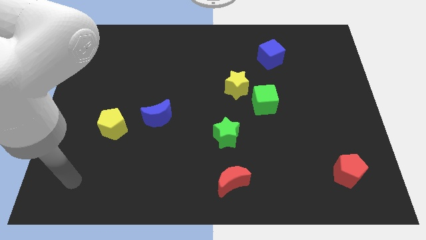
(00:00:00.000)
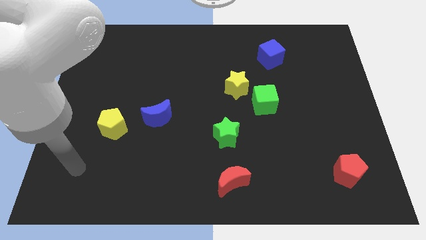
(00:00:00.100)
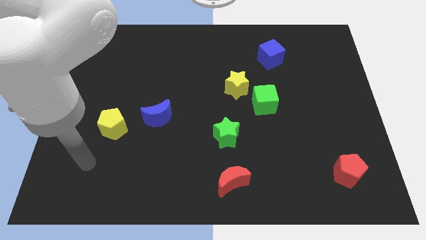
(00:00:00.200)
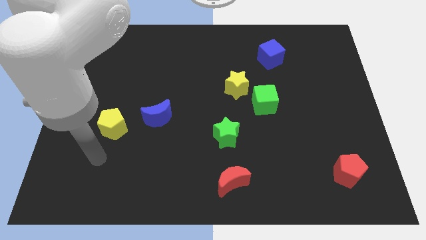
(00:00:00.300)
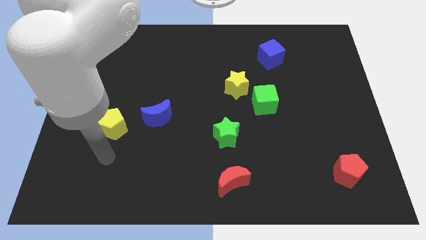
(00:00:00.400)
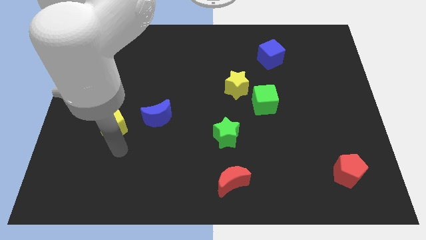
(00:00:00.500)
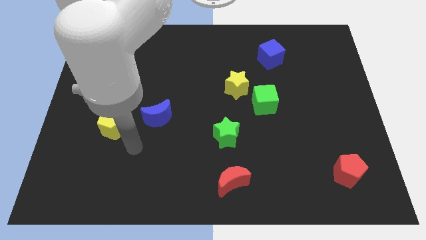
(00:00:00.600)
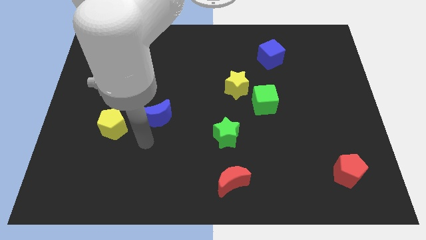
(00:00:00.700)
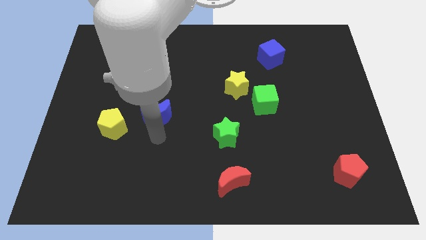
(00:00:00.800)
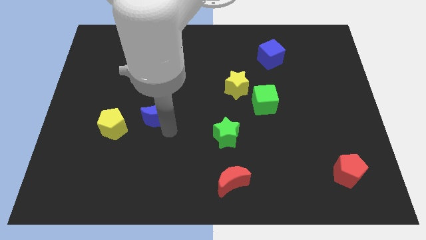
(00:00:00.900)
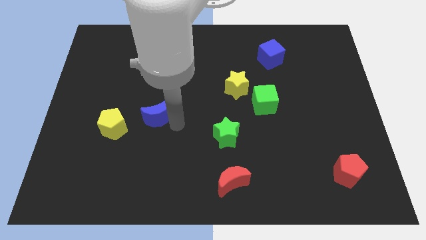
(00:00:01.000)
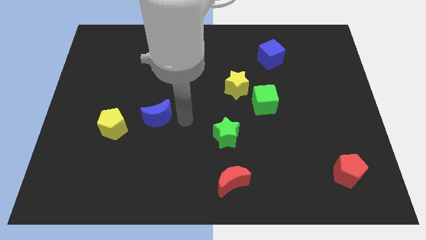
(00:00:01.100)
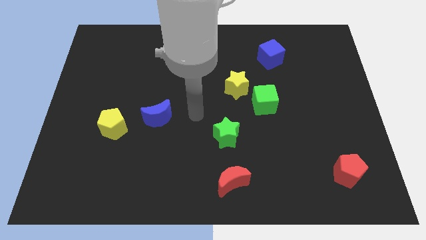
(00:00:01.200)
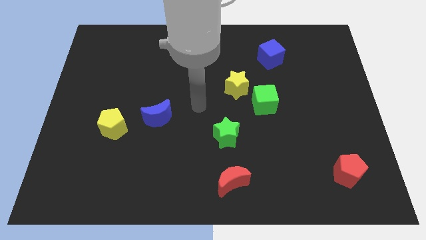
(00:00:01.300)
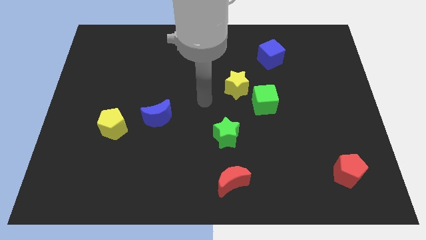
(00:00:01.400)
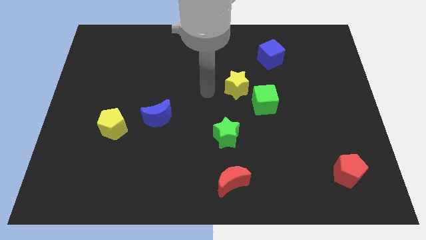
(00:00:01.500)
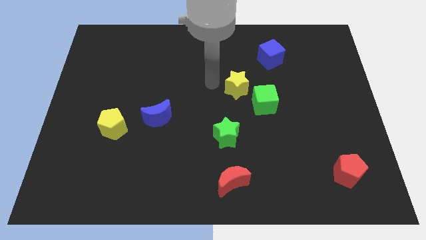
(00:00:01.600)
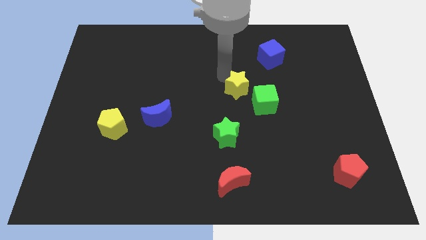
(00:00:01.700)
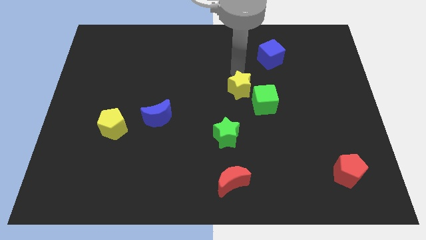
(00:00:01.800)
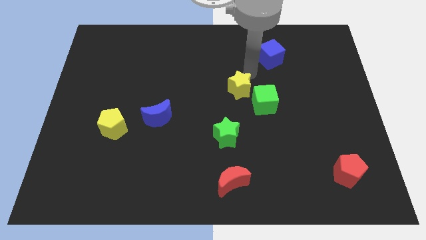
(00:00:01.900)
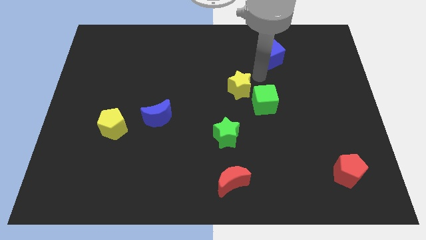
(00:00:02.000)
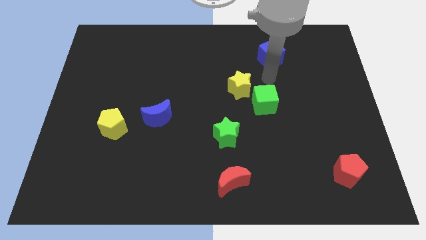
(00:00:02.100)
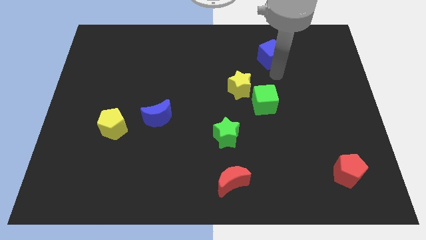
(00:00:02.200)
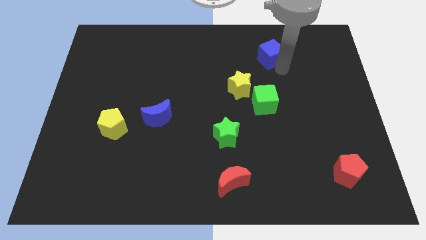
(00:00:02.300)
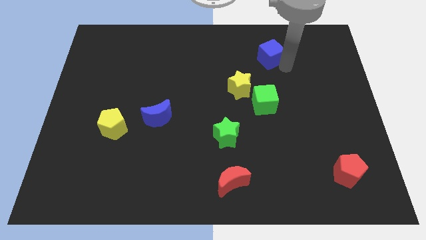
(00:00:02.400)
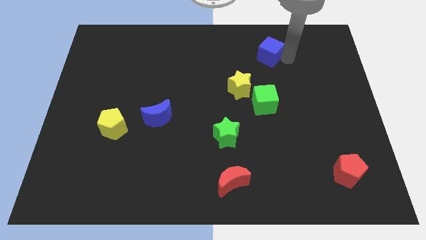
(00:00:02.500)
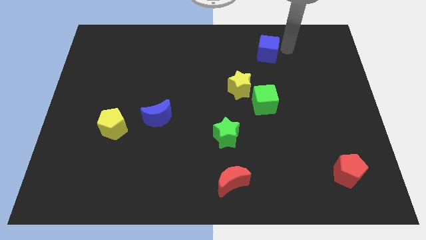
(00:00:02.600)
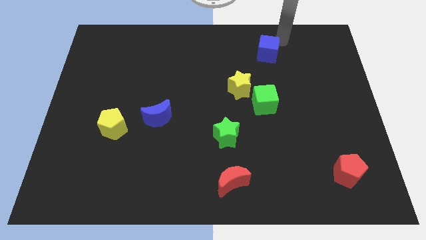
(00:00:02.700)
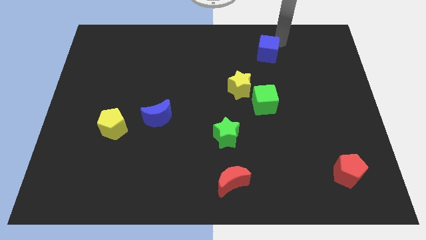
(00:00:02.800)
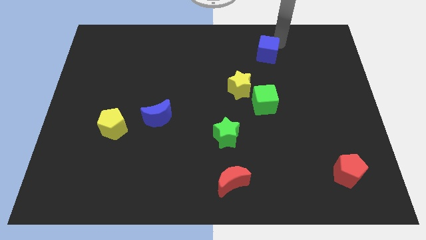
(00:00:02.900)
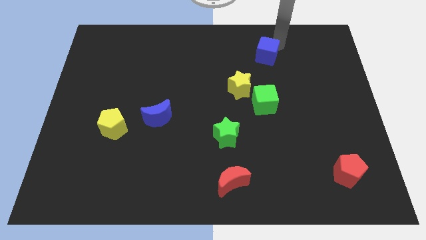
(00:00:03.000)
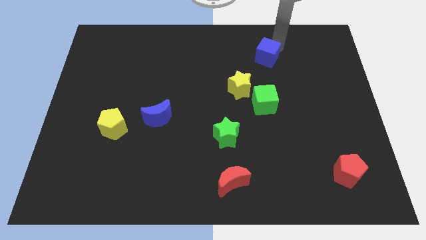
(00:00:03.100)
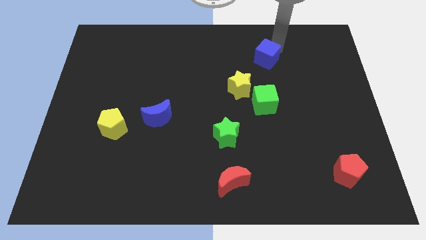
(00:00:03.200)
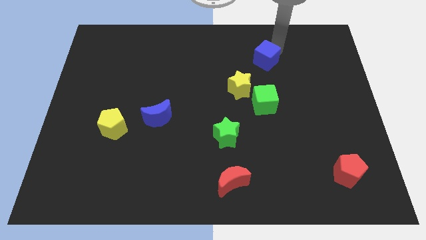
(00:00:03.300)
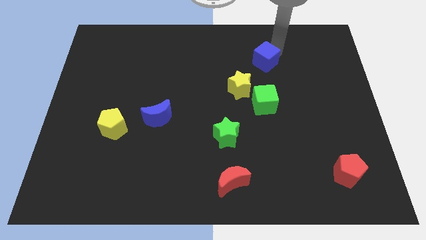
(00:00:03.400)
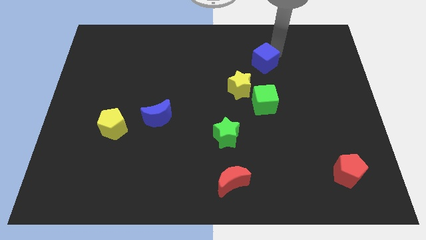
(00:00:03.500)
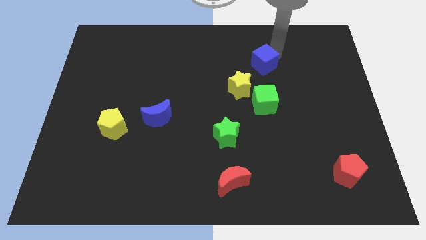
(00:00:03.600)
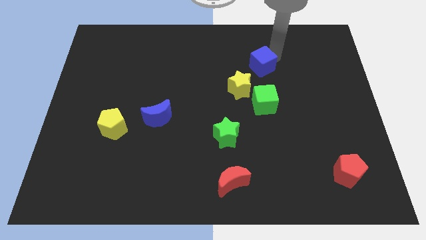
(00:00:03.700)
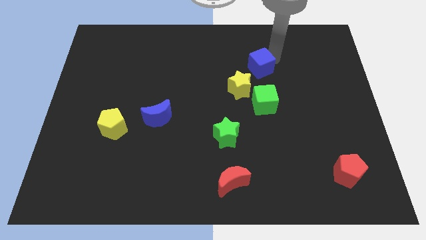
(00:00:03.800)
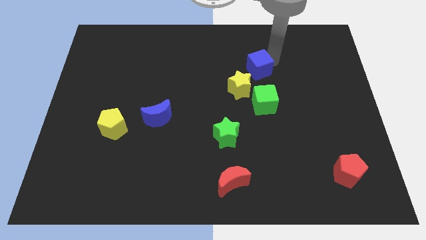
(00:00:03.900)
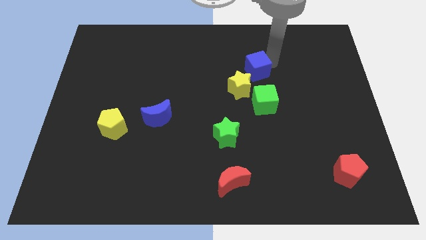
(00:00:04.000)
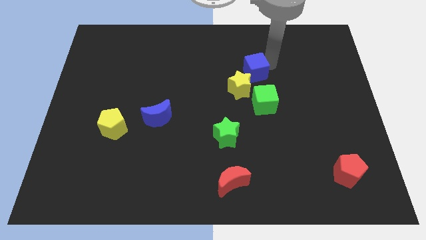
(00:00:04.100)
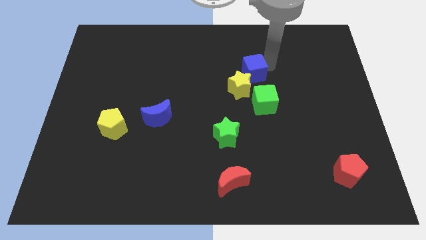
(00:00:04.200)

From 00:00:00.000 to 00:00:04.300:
slide the blue cube slightly downwards and to the left

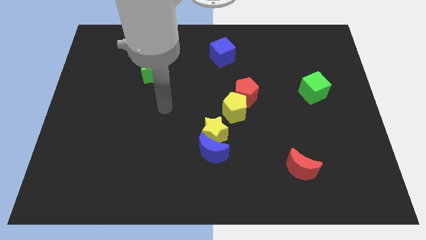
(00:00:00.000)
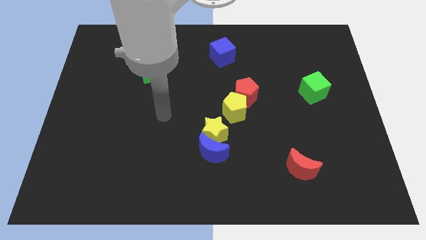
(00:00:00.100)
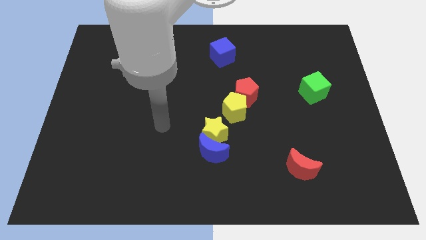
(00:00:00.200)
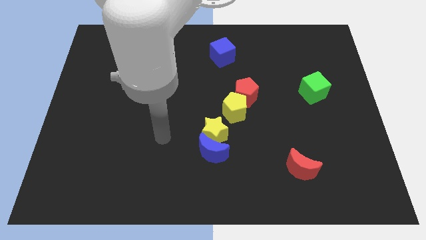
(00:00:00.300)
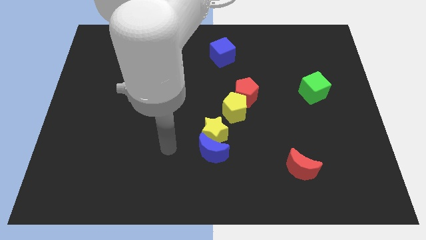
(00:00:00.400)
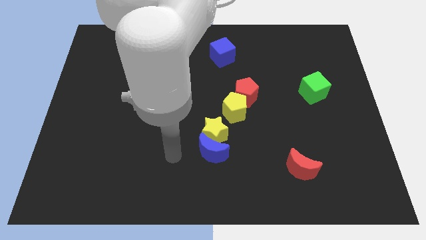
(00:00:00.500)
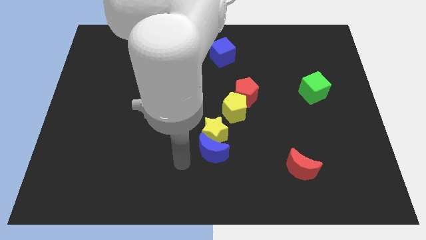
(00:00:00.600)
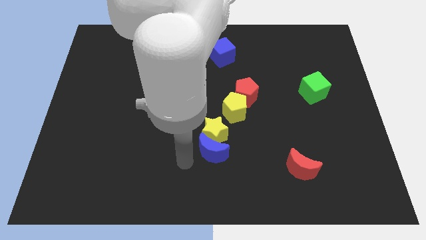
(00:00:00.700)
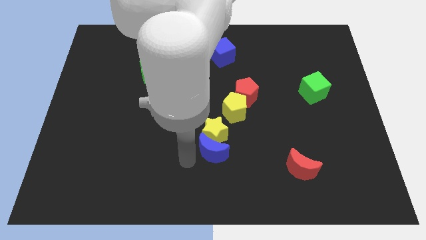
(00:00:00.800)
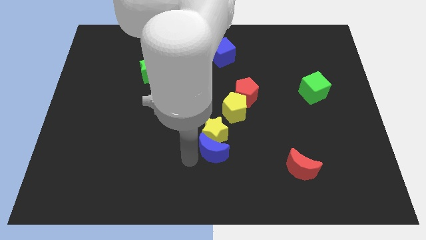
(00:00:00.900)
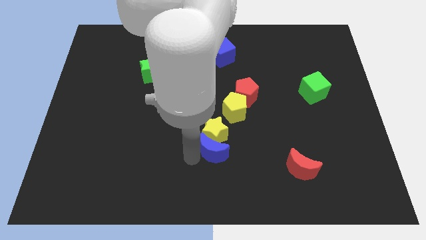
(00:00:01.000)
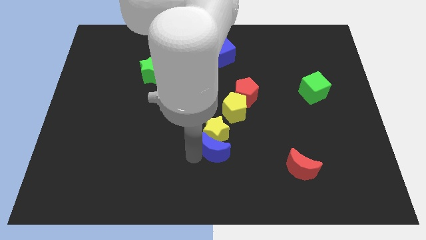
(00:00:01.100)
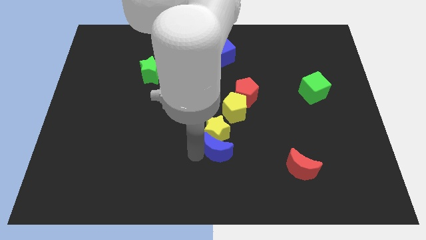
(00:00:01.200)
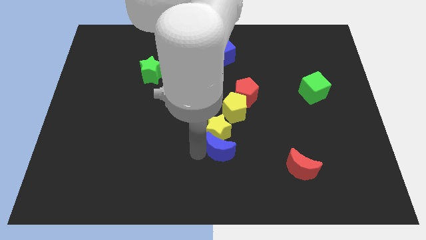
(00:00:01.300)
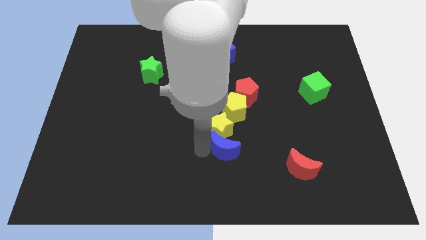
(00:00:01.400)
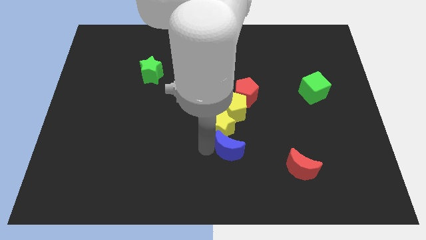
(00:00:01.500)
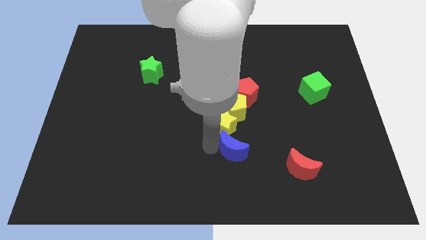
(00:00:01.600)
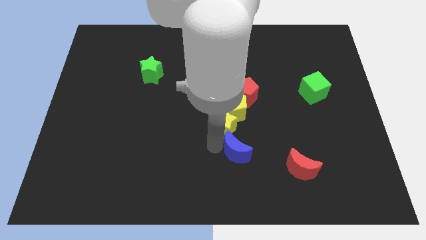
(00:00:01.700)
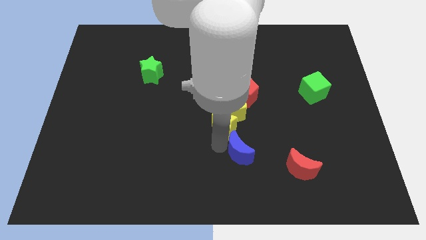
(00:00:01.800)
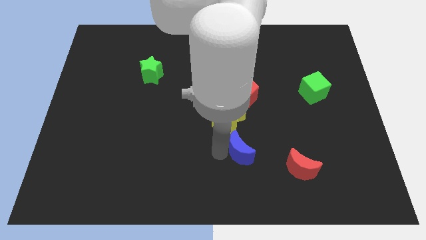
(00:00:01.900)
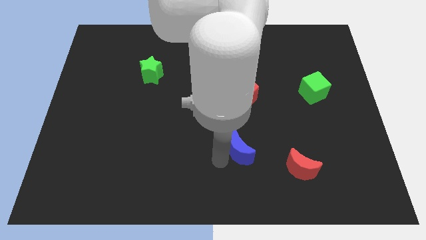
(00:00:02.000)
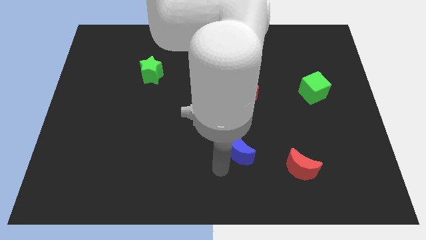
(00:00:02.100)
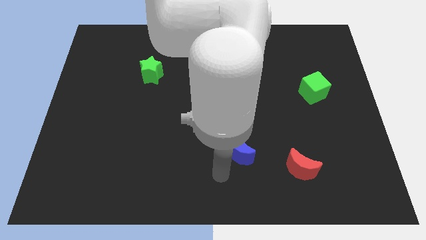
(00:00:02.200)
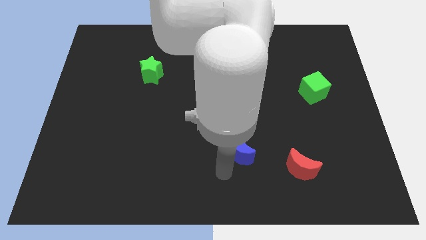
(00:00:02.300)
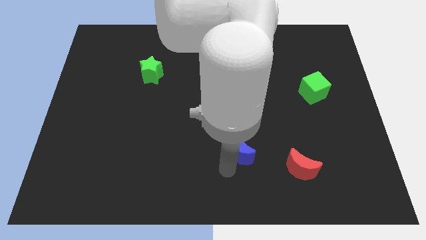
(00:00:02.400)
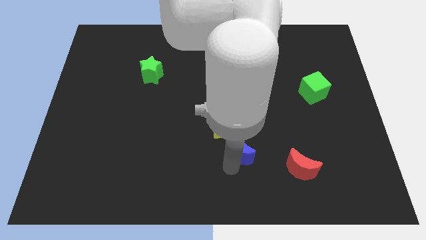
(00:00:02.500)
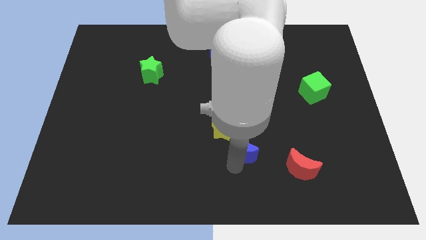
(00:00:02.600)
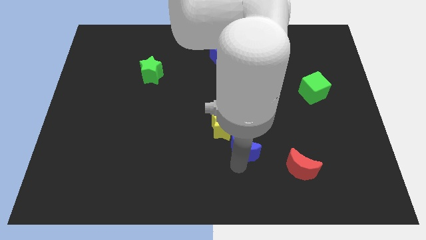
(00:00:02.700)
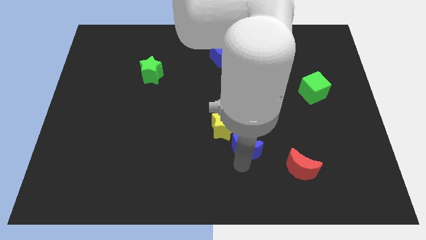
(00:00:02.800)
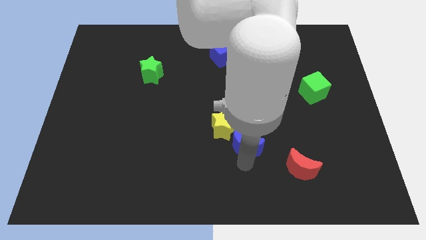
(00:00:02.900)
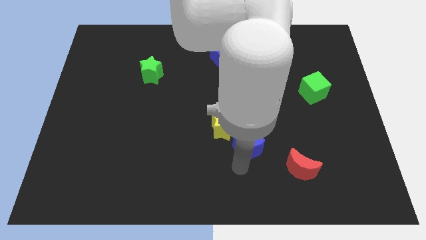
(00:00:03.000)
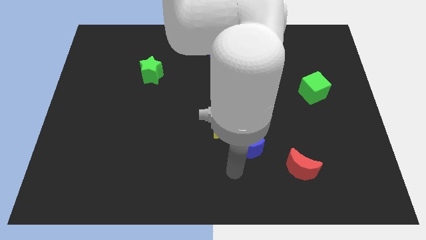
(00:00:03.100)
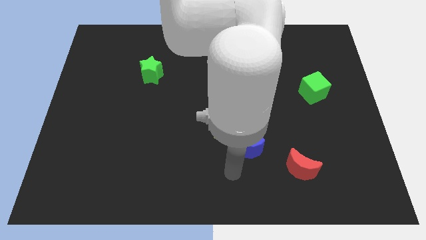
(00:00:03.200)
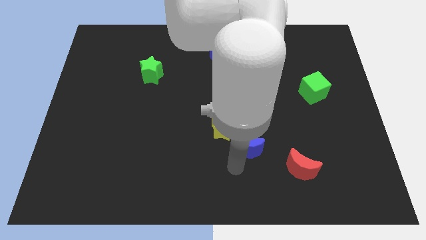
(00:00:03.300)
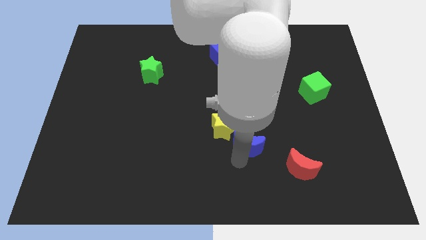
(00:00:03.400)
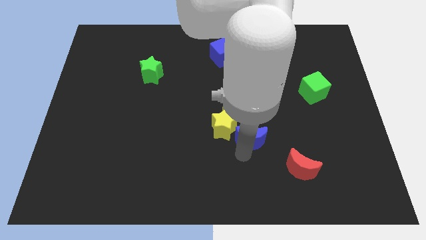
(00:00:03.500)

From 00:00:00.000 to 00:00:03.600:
slightly slide the blue moon up and right diagonally

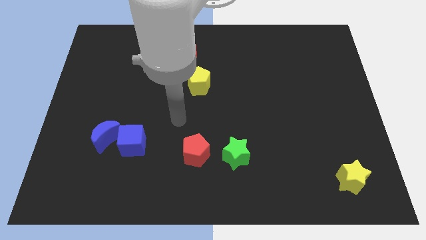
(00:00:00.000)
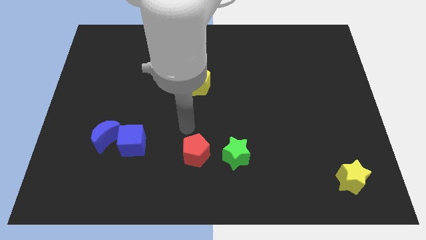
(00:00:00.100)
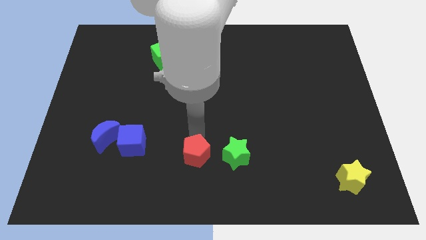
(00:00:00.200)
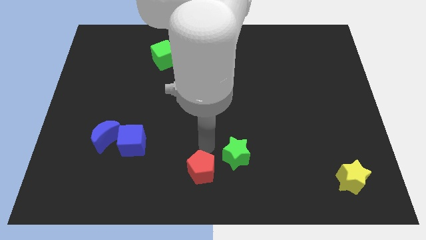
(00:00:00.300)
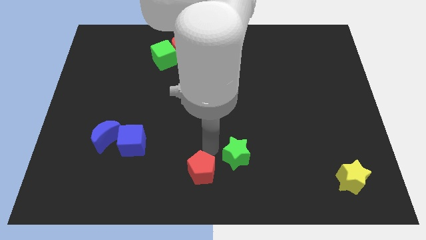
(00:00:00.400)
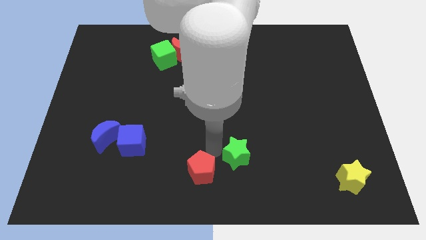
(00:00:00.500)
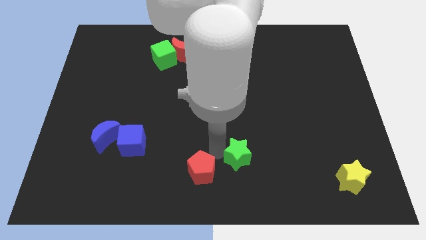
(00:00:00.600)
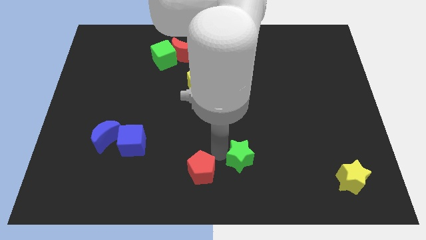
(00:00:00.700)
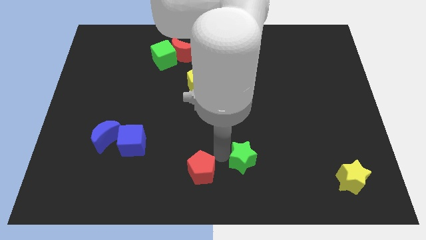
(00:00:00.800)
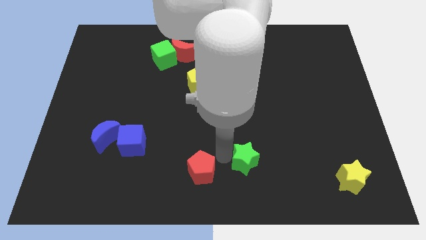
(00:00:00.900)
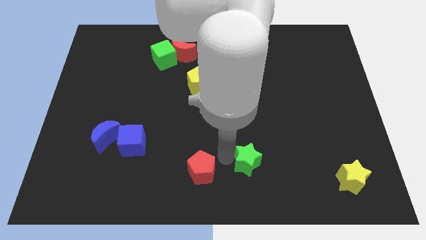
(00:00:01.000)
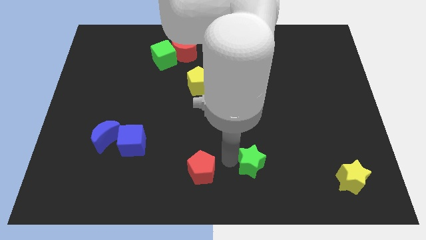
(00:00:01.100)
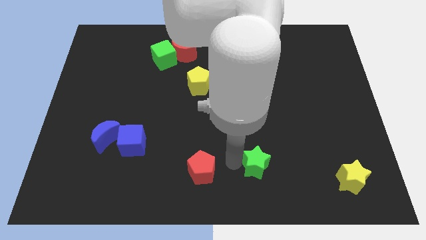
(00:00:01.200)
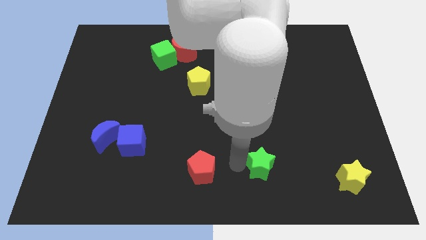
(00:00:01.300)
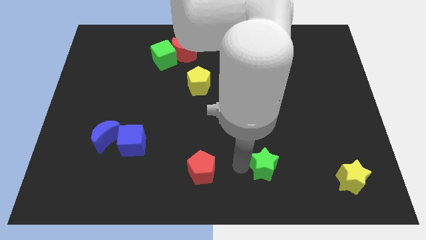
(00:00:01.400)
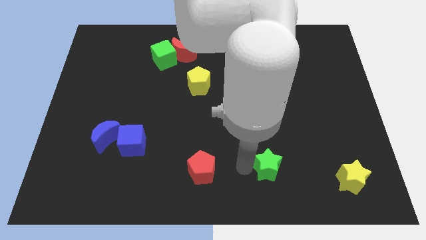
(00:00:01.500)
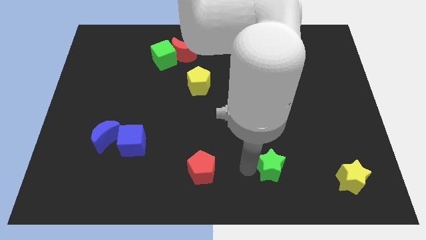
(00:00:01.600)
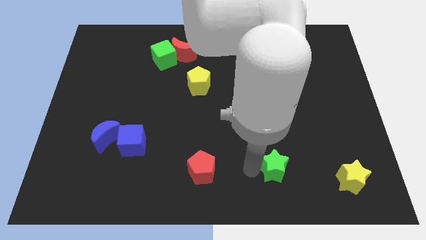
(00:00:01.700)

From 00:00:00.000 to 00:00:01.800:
move the green star right a little
